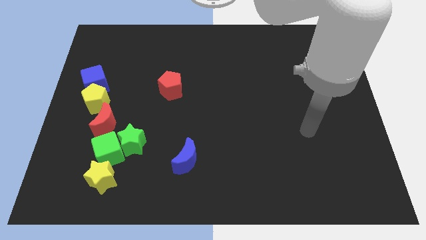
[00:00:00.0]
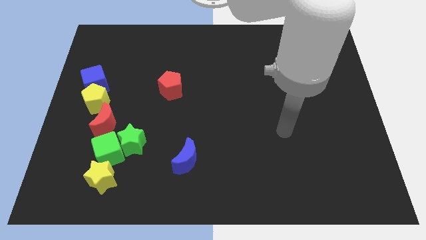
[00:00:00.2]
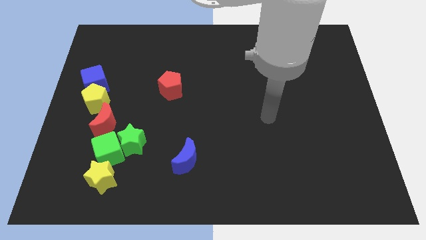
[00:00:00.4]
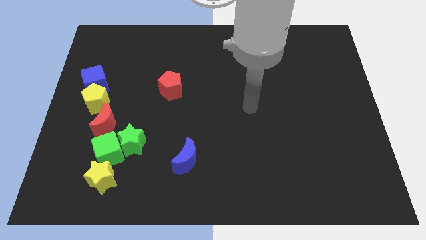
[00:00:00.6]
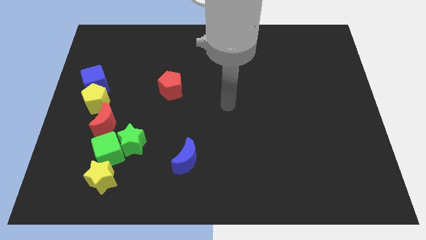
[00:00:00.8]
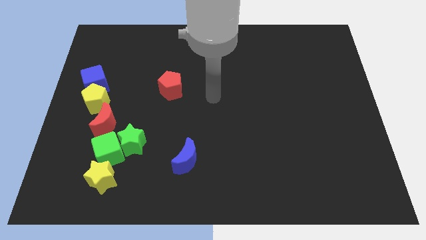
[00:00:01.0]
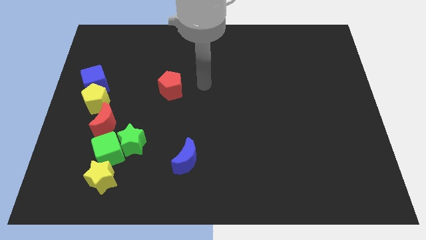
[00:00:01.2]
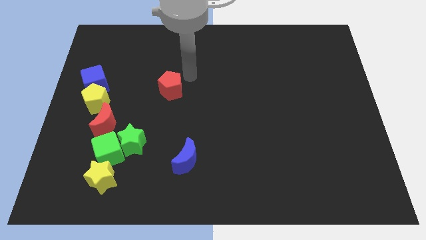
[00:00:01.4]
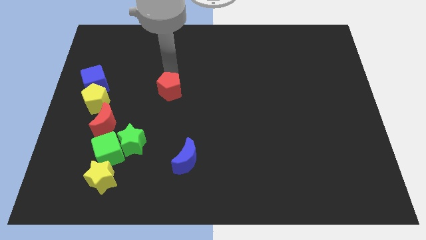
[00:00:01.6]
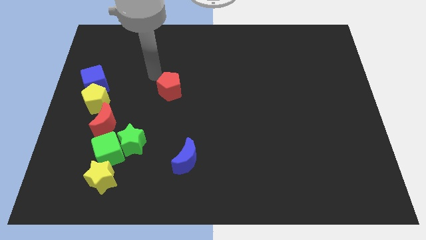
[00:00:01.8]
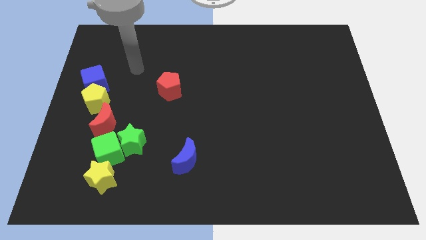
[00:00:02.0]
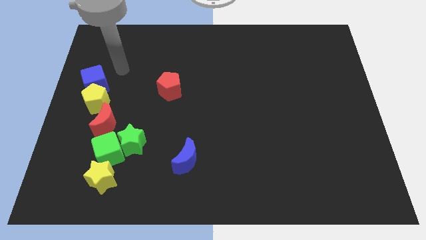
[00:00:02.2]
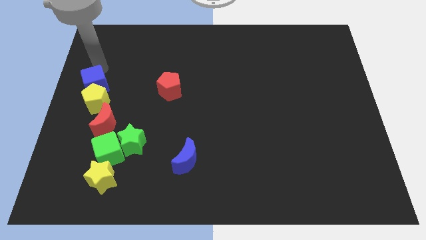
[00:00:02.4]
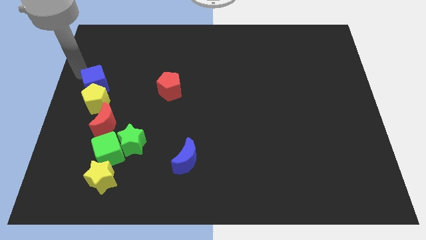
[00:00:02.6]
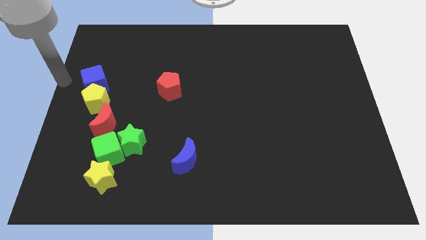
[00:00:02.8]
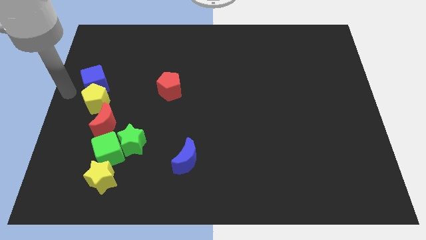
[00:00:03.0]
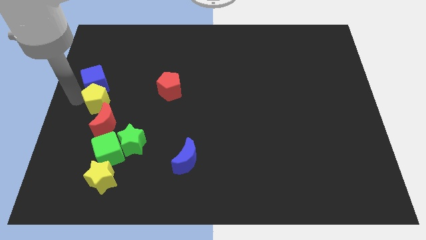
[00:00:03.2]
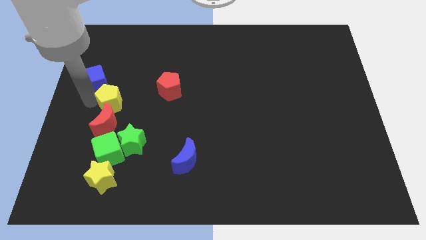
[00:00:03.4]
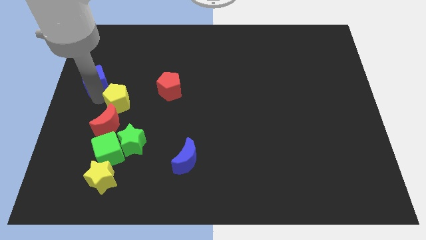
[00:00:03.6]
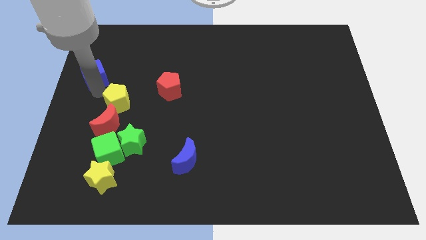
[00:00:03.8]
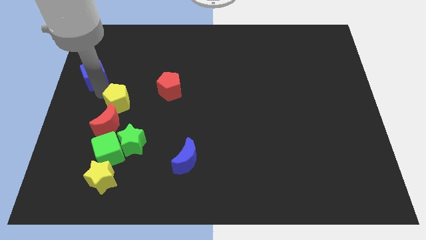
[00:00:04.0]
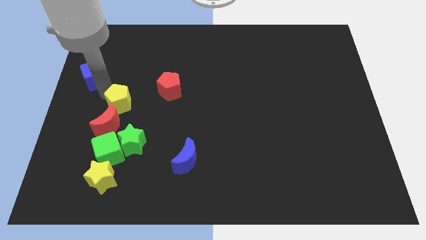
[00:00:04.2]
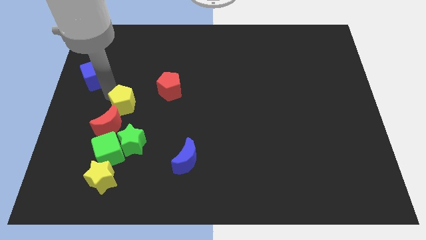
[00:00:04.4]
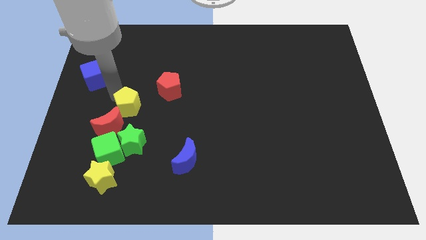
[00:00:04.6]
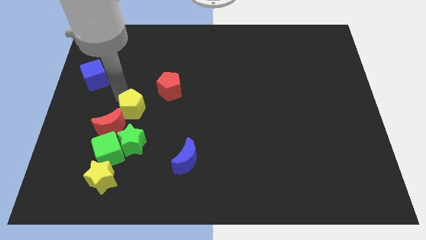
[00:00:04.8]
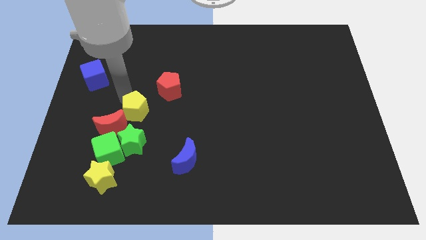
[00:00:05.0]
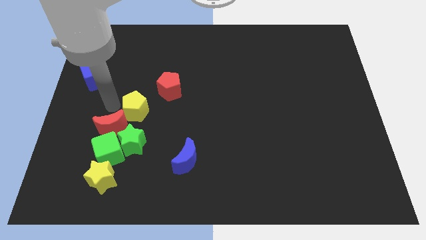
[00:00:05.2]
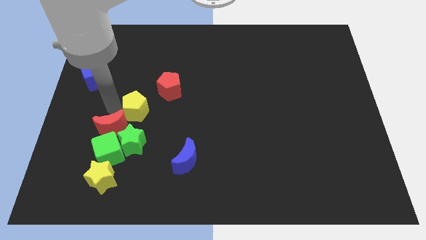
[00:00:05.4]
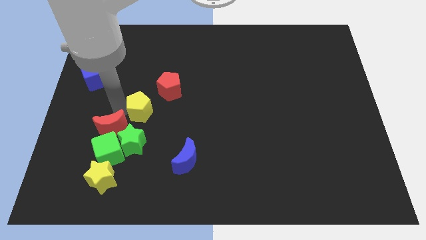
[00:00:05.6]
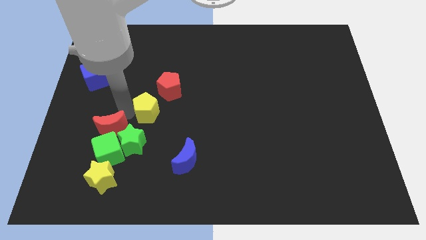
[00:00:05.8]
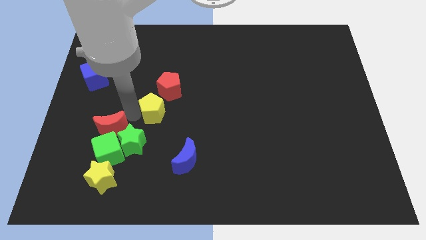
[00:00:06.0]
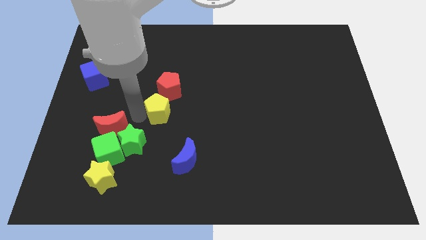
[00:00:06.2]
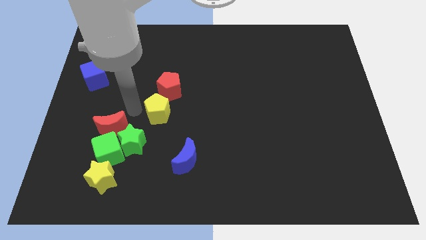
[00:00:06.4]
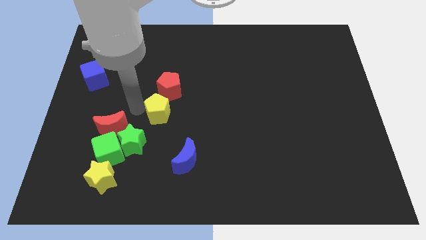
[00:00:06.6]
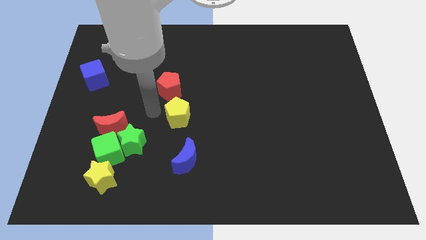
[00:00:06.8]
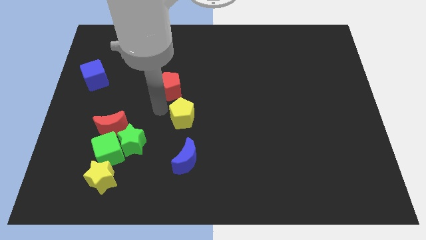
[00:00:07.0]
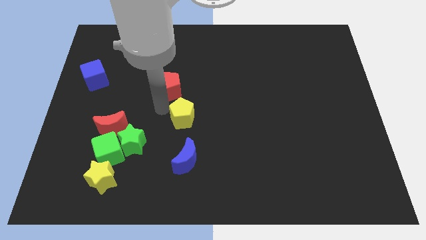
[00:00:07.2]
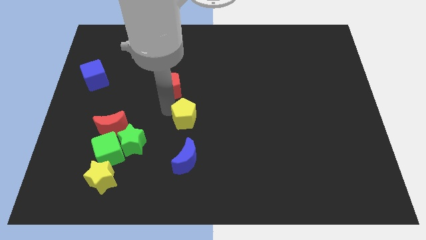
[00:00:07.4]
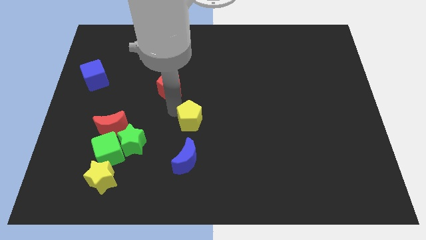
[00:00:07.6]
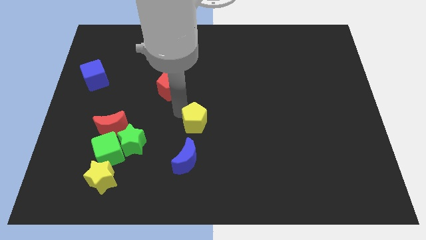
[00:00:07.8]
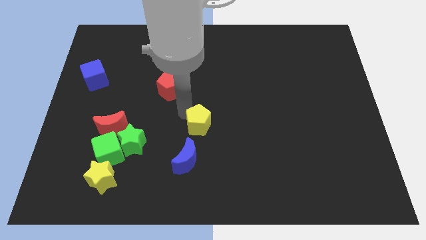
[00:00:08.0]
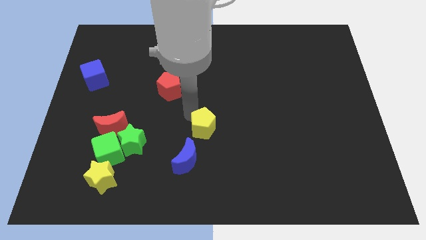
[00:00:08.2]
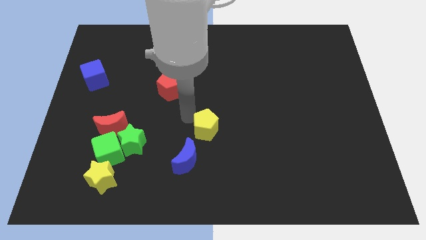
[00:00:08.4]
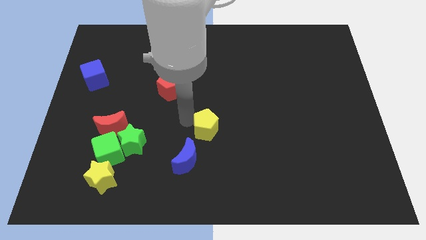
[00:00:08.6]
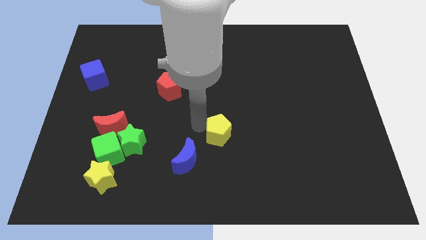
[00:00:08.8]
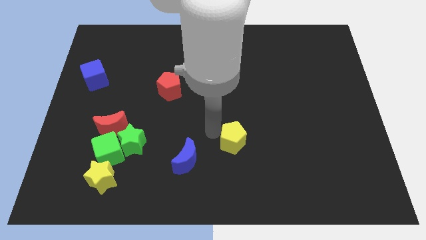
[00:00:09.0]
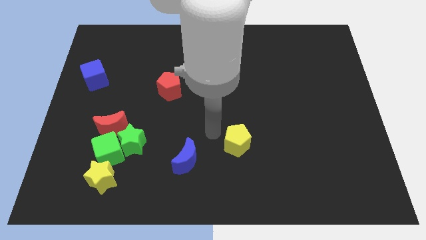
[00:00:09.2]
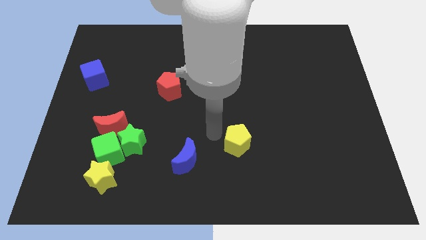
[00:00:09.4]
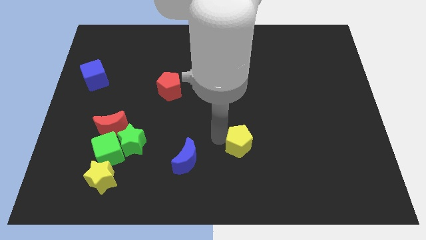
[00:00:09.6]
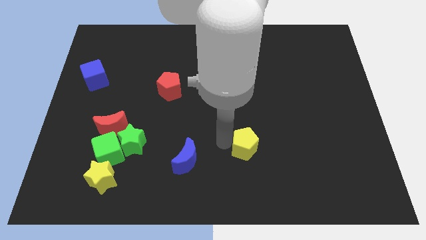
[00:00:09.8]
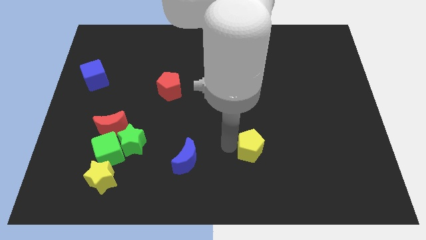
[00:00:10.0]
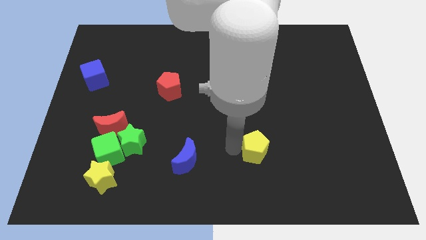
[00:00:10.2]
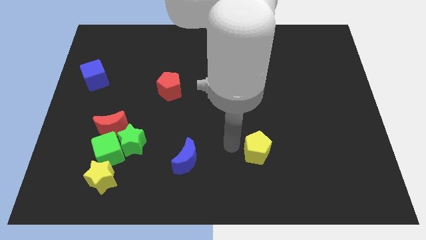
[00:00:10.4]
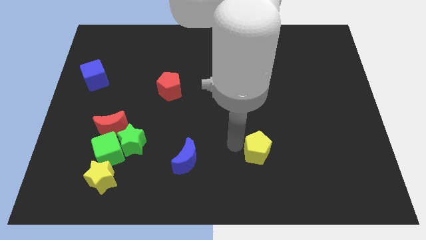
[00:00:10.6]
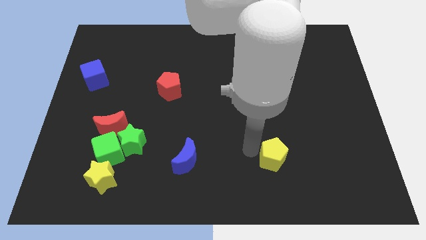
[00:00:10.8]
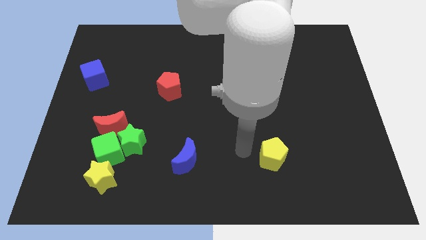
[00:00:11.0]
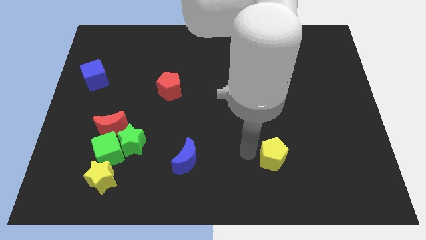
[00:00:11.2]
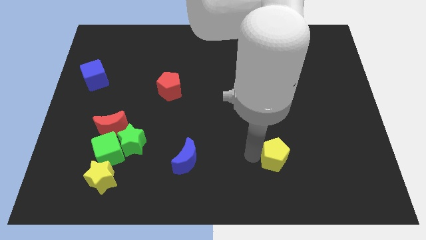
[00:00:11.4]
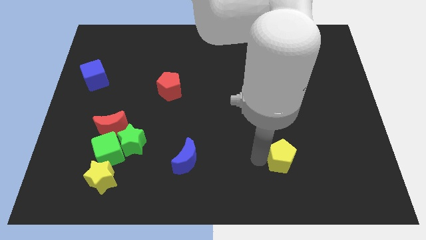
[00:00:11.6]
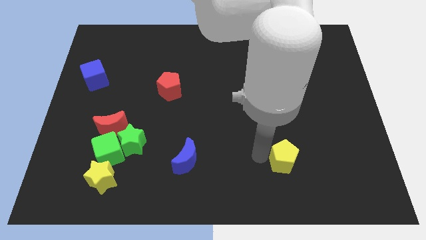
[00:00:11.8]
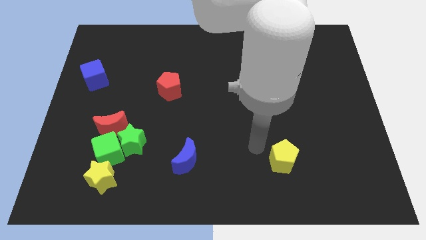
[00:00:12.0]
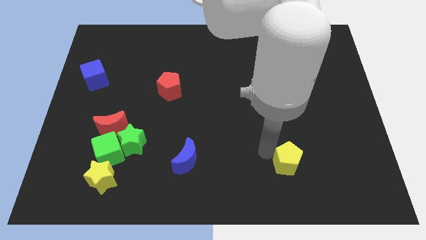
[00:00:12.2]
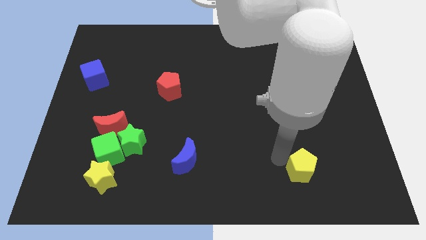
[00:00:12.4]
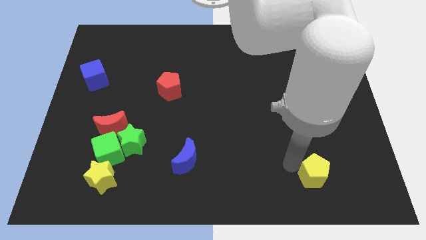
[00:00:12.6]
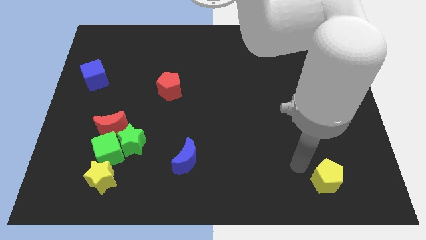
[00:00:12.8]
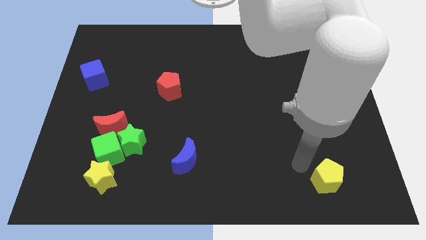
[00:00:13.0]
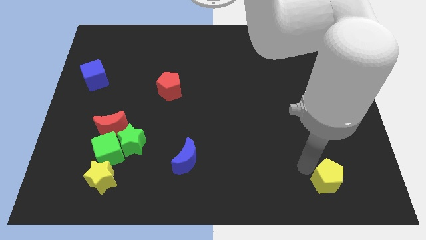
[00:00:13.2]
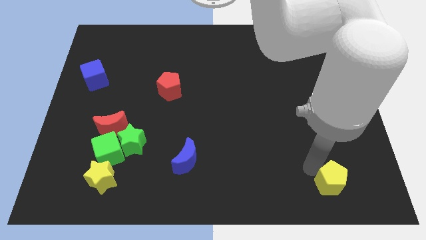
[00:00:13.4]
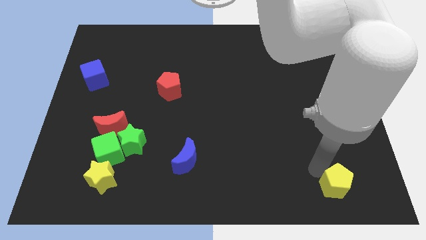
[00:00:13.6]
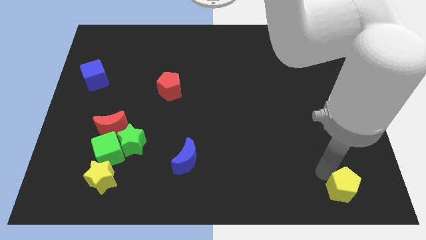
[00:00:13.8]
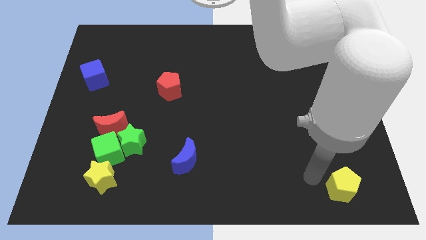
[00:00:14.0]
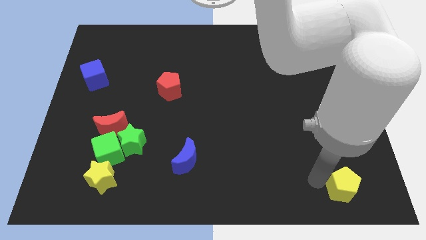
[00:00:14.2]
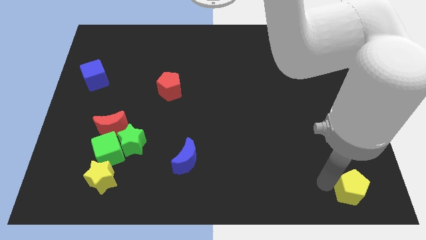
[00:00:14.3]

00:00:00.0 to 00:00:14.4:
push the yellow pentagon to the bottom right of the board
